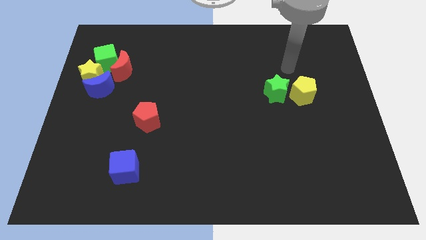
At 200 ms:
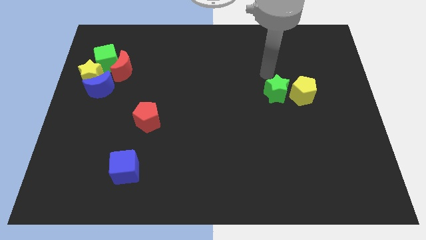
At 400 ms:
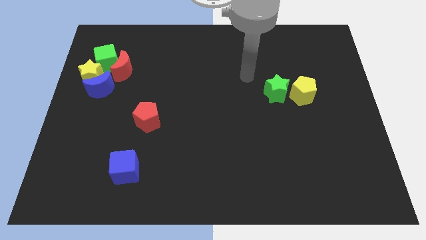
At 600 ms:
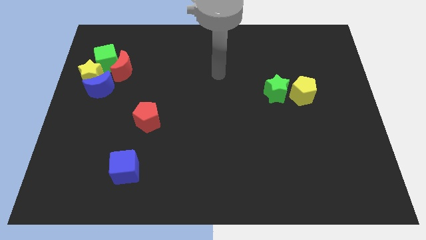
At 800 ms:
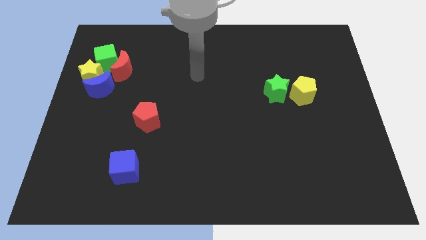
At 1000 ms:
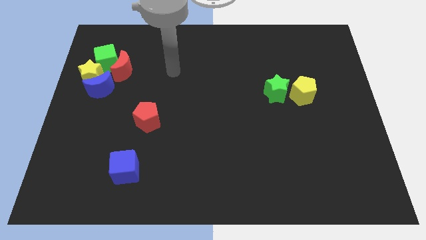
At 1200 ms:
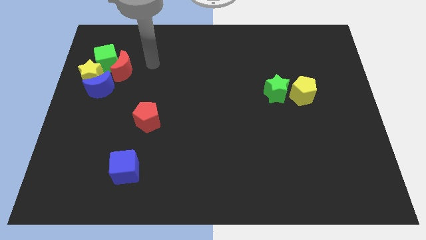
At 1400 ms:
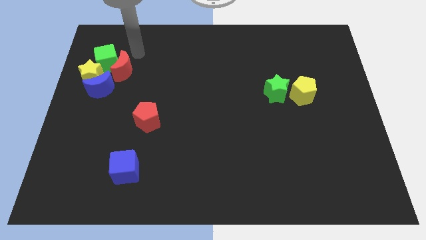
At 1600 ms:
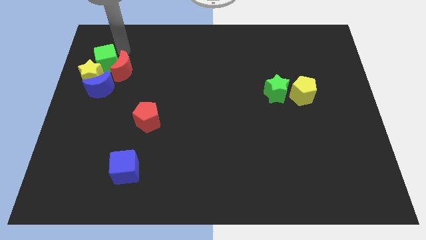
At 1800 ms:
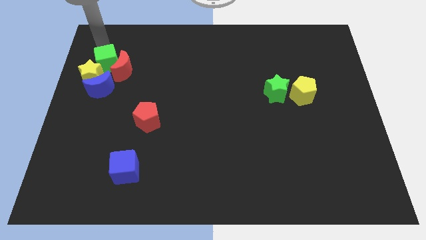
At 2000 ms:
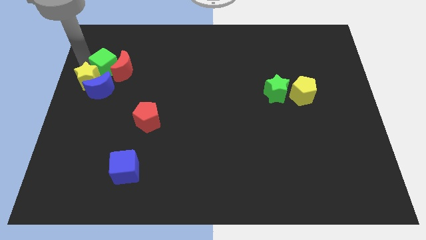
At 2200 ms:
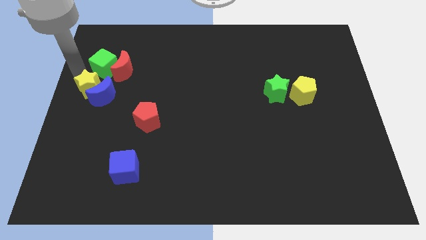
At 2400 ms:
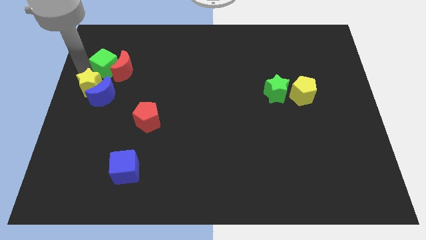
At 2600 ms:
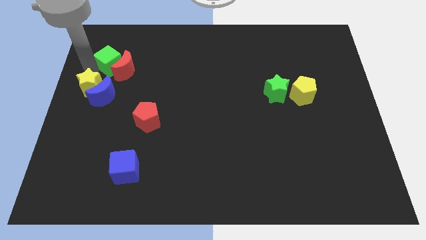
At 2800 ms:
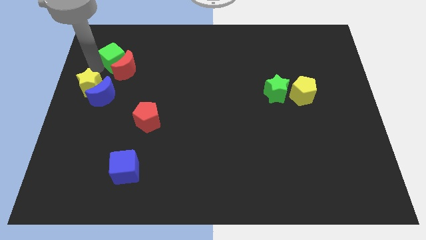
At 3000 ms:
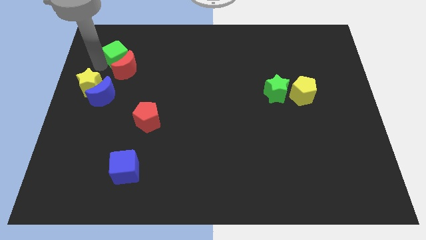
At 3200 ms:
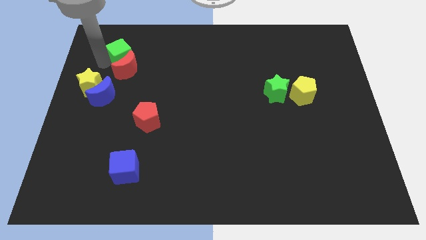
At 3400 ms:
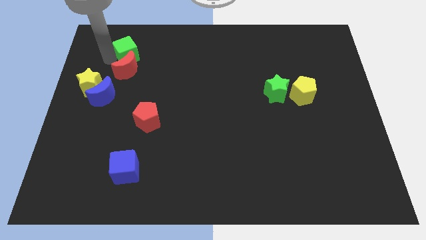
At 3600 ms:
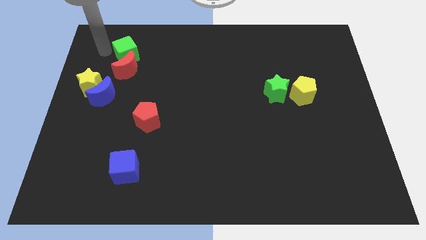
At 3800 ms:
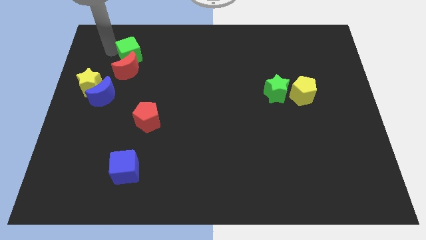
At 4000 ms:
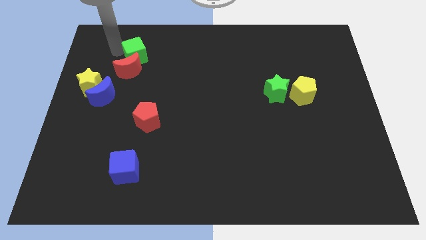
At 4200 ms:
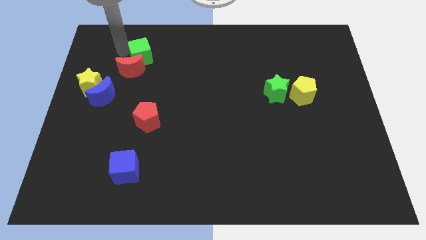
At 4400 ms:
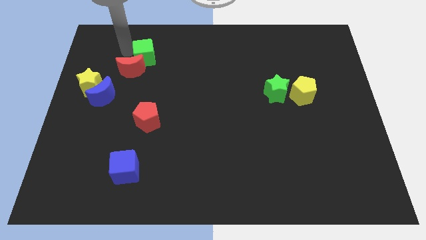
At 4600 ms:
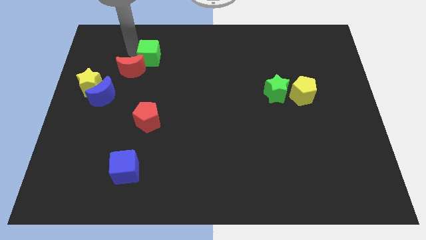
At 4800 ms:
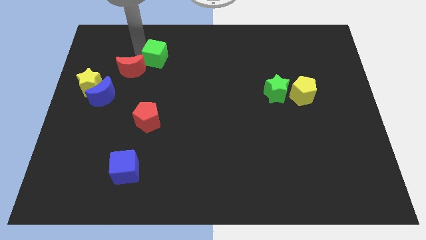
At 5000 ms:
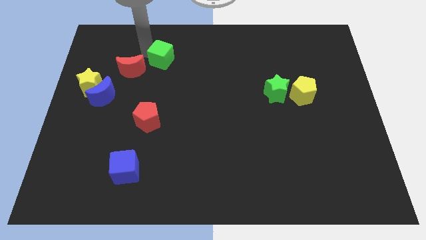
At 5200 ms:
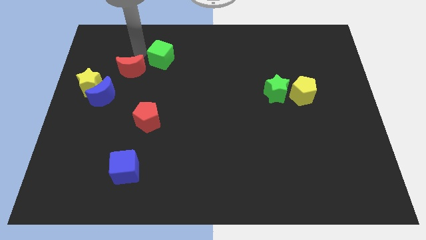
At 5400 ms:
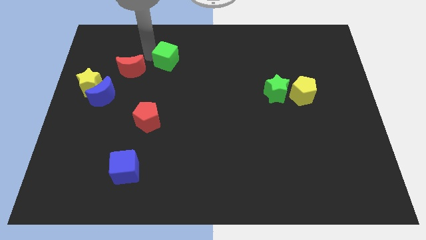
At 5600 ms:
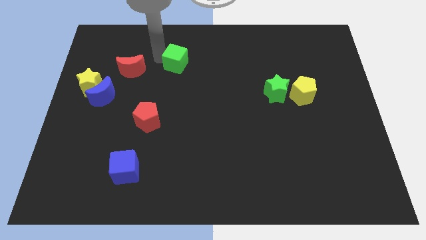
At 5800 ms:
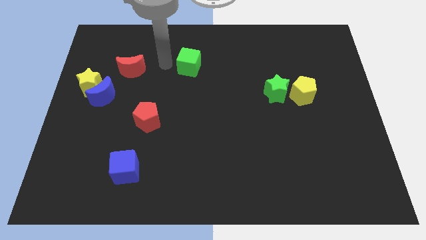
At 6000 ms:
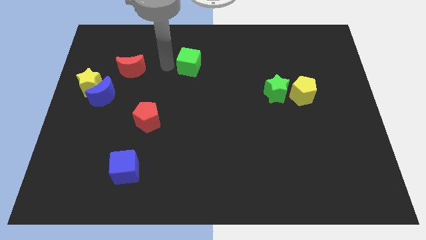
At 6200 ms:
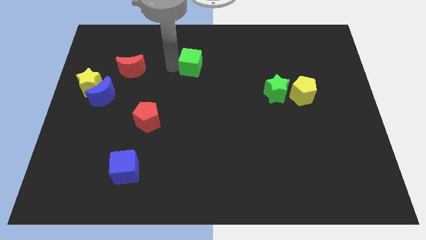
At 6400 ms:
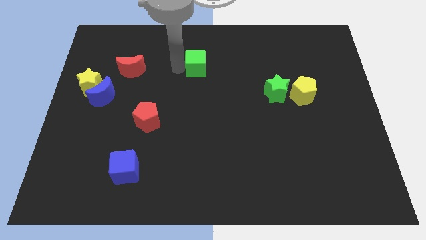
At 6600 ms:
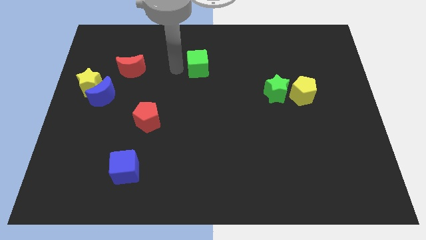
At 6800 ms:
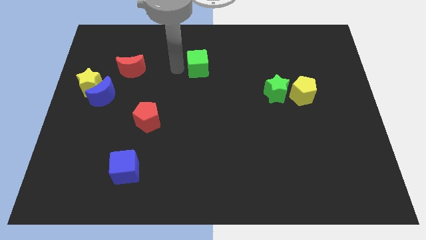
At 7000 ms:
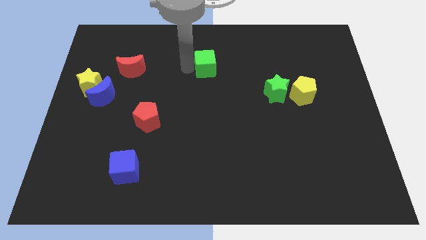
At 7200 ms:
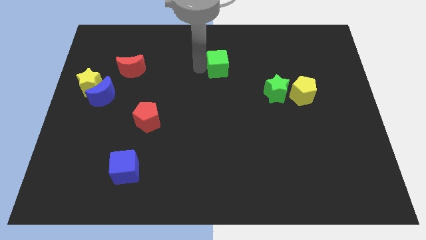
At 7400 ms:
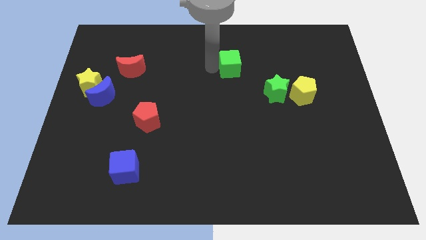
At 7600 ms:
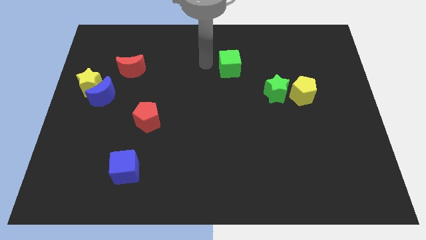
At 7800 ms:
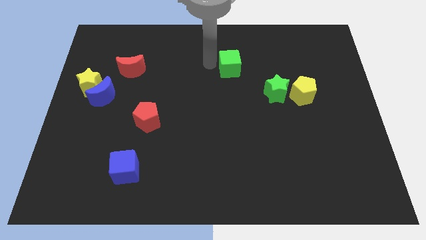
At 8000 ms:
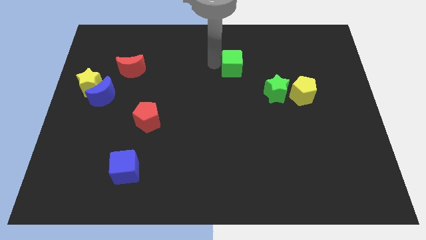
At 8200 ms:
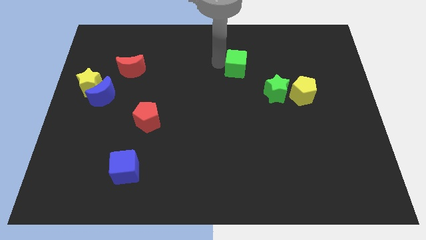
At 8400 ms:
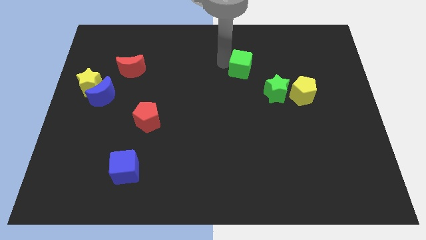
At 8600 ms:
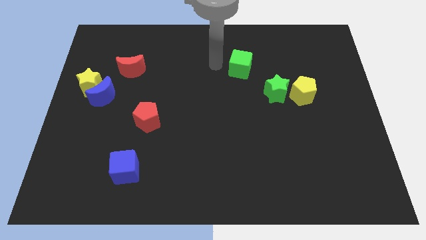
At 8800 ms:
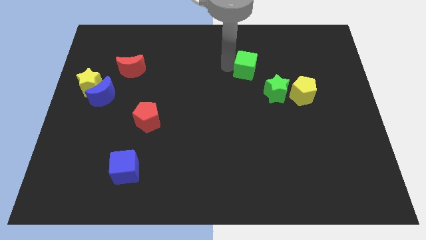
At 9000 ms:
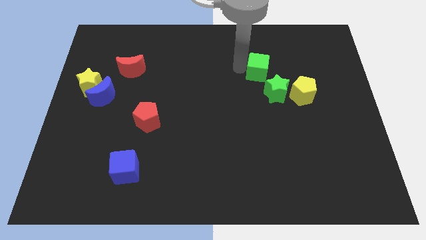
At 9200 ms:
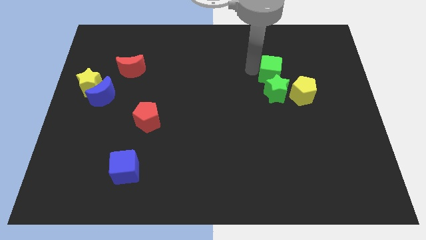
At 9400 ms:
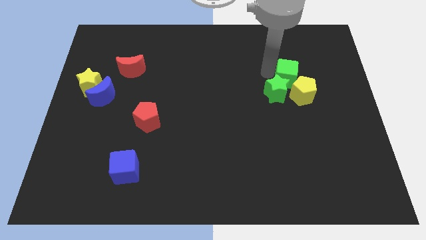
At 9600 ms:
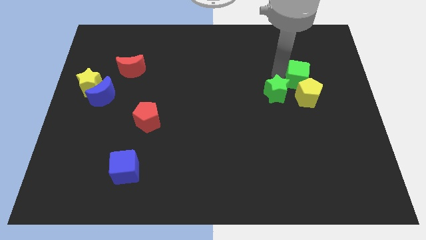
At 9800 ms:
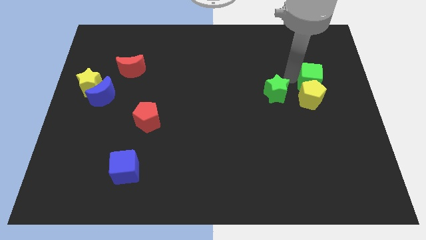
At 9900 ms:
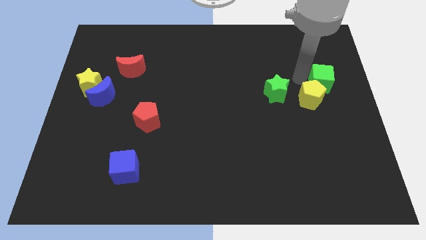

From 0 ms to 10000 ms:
push the green cube to the right side

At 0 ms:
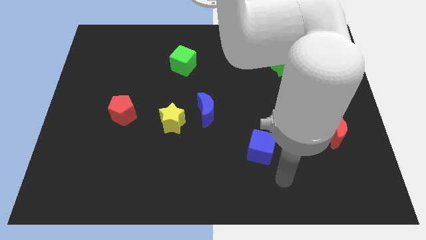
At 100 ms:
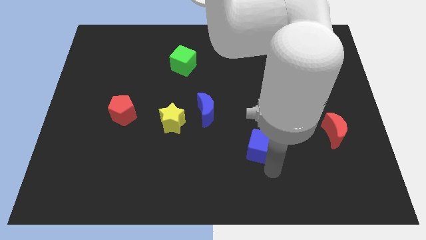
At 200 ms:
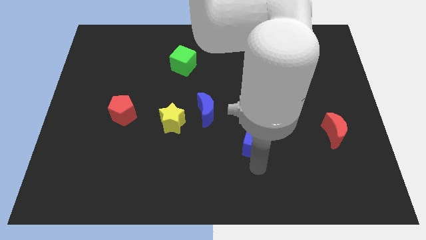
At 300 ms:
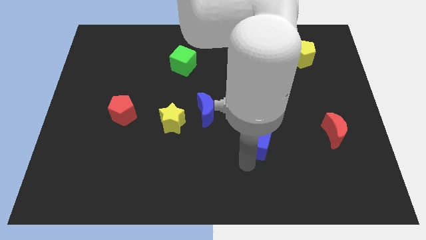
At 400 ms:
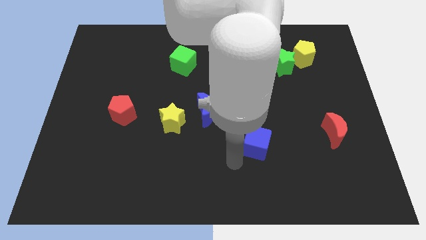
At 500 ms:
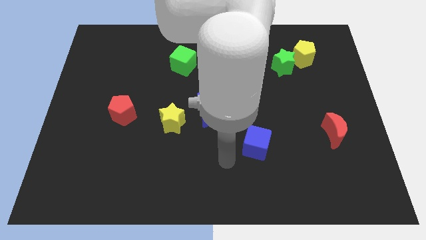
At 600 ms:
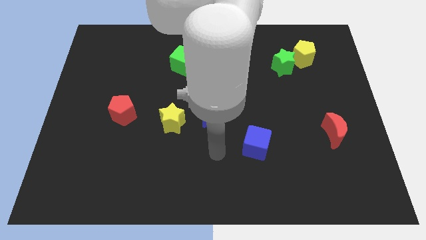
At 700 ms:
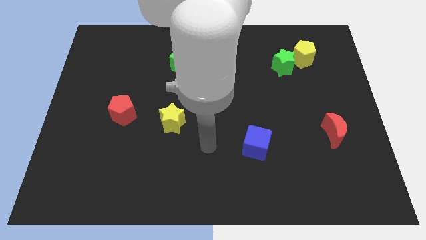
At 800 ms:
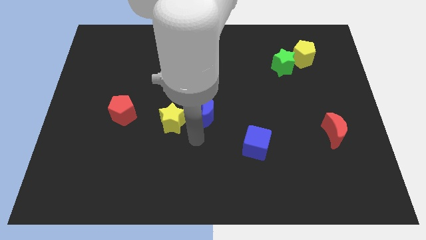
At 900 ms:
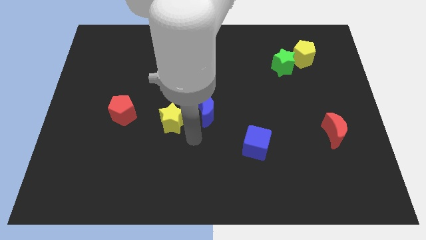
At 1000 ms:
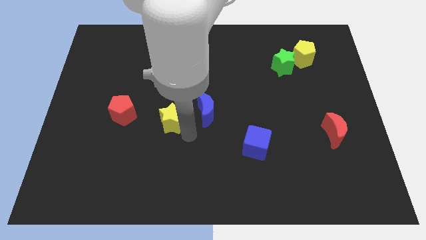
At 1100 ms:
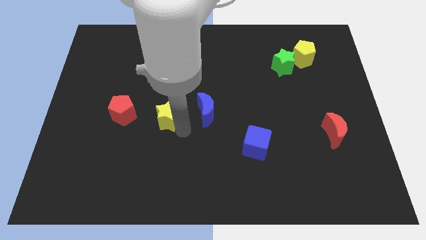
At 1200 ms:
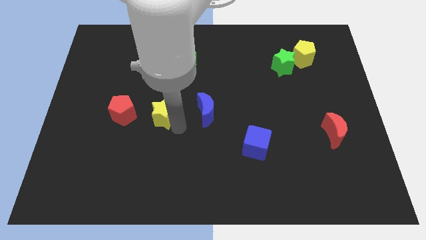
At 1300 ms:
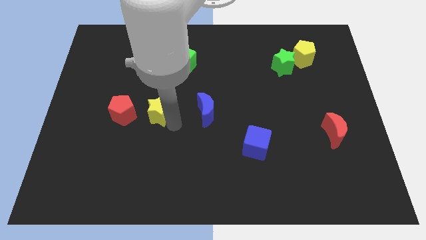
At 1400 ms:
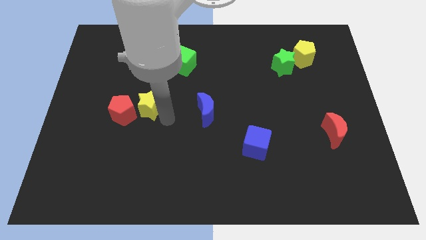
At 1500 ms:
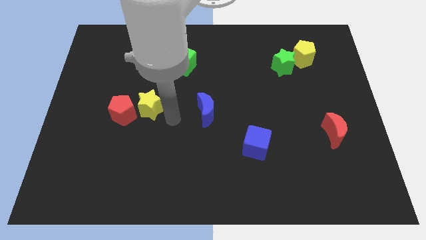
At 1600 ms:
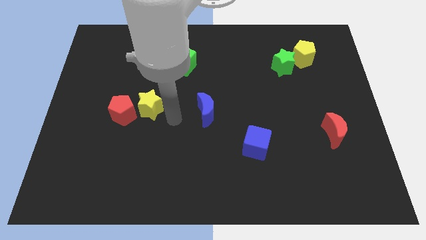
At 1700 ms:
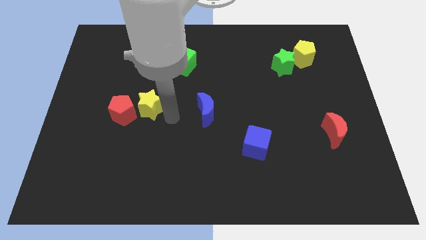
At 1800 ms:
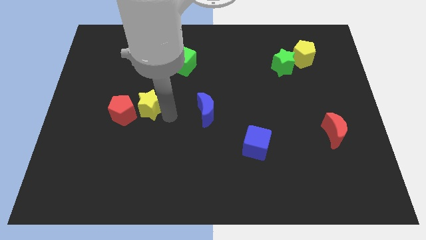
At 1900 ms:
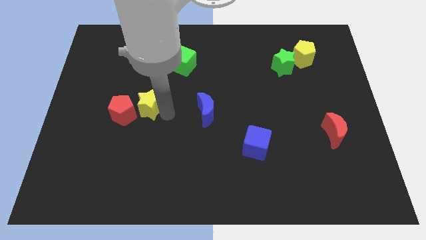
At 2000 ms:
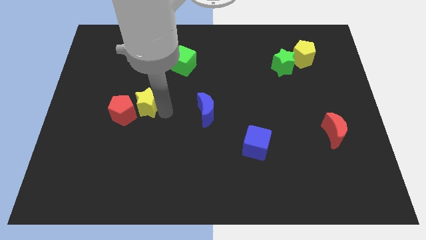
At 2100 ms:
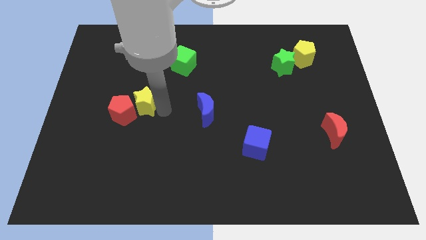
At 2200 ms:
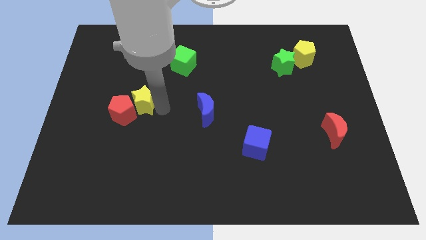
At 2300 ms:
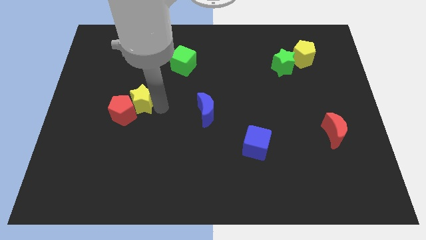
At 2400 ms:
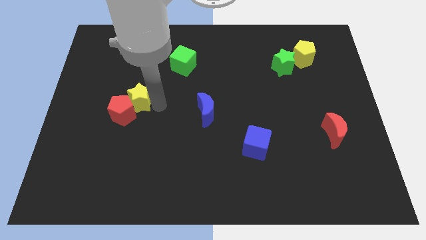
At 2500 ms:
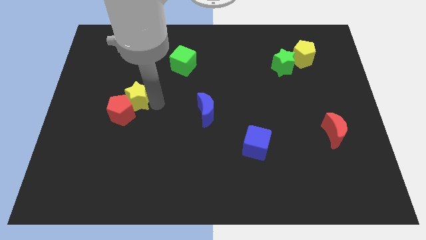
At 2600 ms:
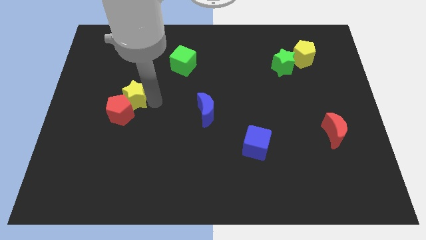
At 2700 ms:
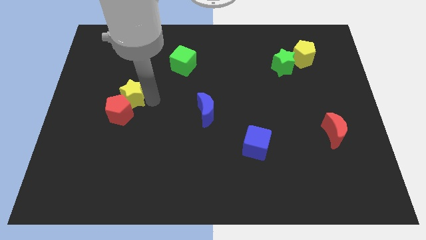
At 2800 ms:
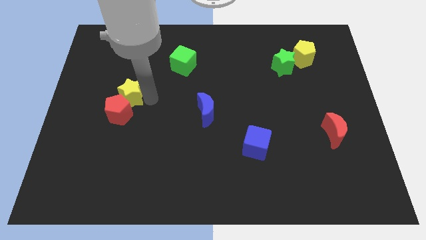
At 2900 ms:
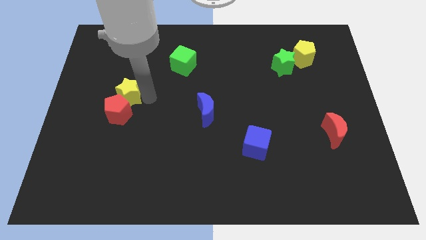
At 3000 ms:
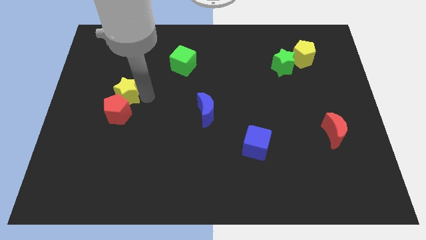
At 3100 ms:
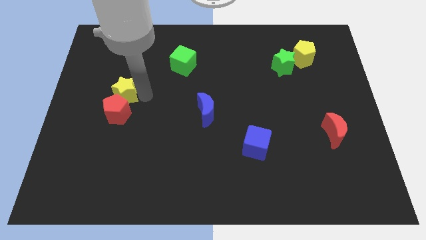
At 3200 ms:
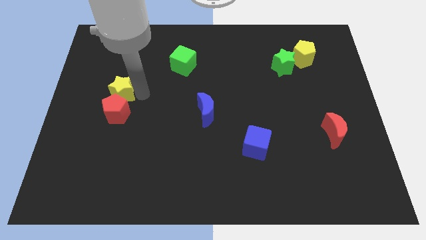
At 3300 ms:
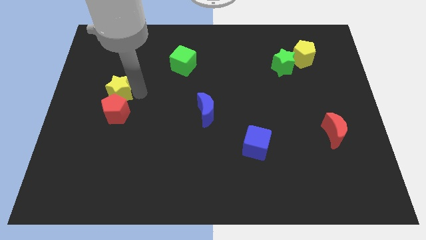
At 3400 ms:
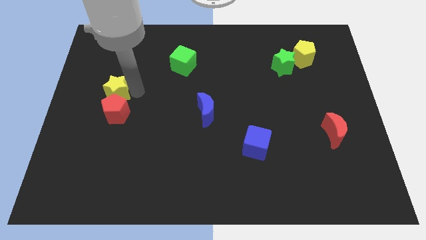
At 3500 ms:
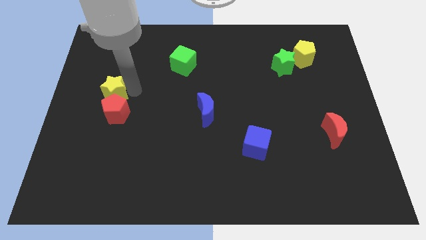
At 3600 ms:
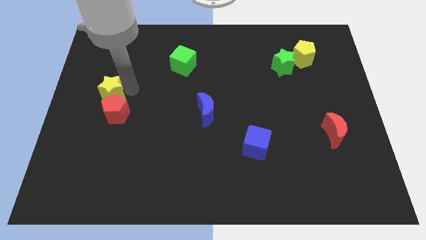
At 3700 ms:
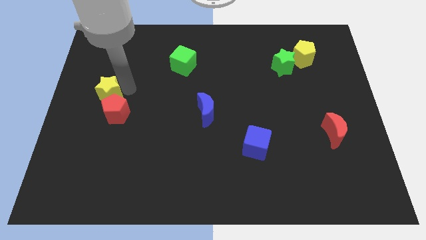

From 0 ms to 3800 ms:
slide the yellow star to the center left
